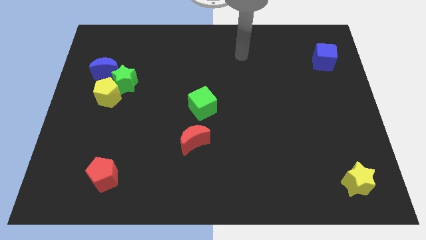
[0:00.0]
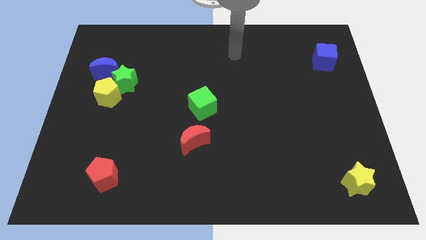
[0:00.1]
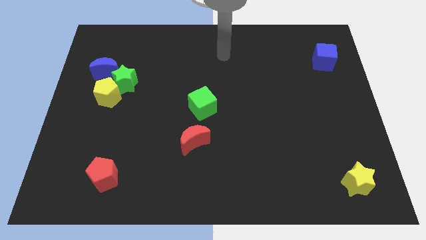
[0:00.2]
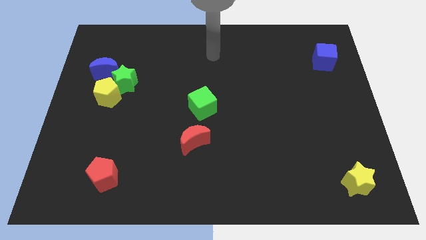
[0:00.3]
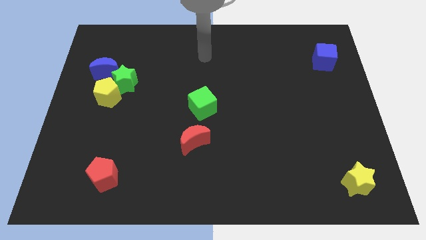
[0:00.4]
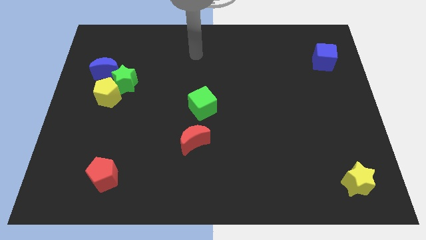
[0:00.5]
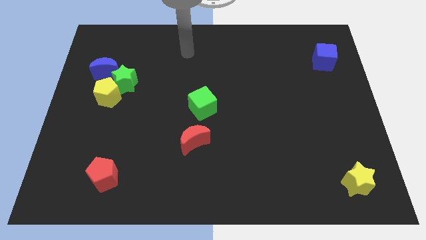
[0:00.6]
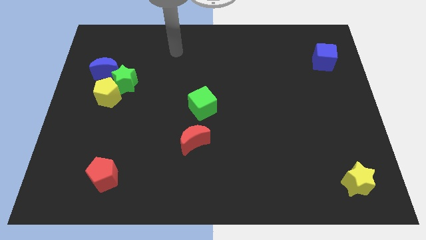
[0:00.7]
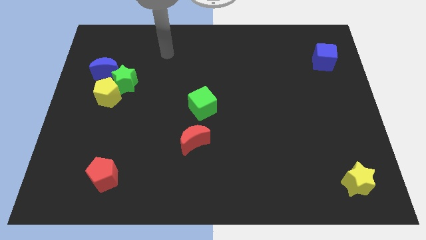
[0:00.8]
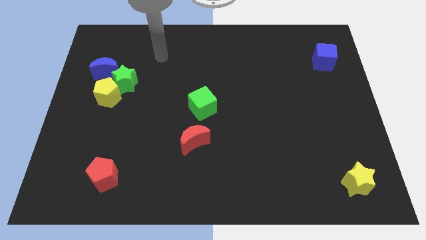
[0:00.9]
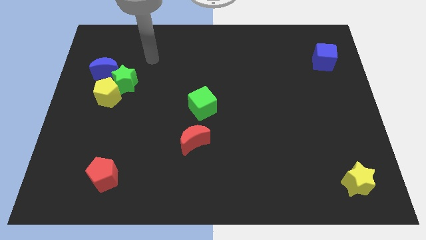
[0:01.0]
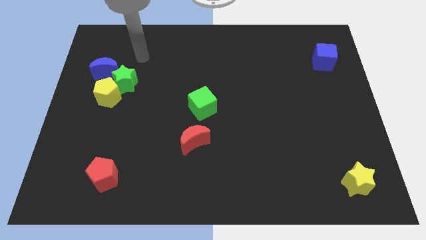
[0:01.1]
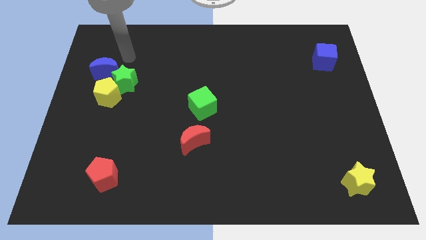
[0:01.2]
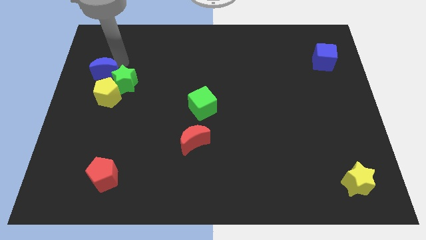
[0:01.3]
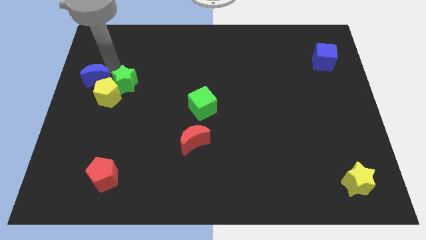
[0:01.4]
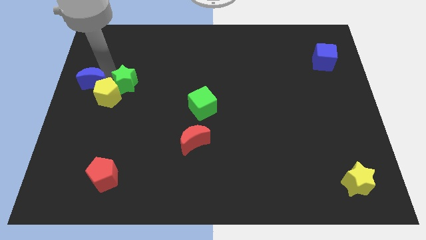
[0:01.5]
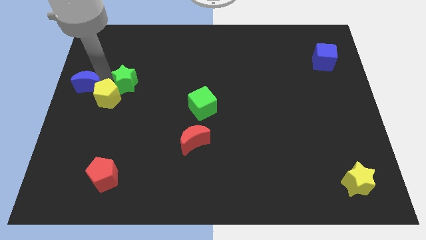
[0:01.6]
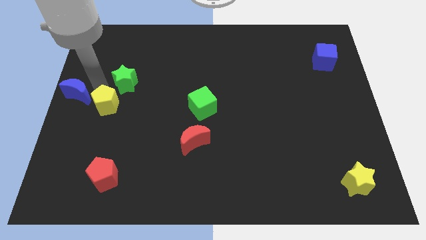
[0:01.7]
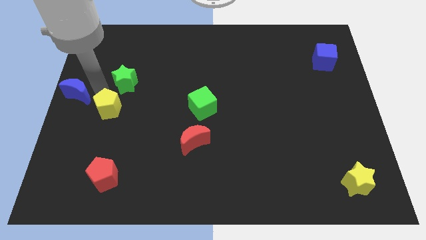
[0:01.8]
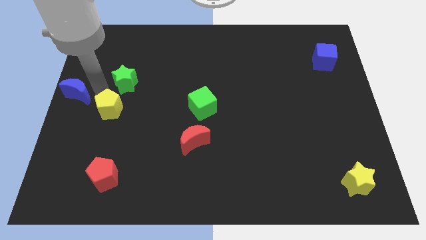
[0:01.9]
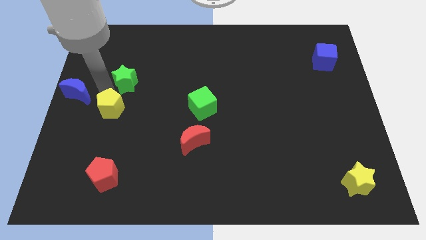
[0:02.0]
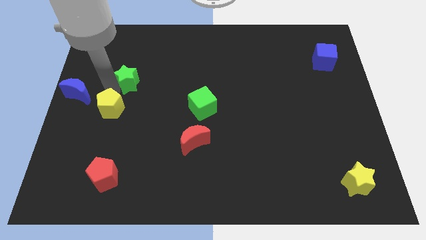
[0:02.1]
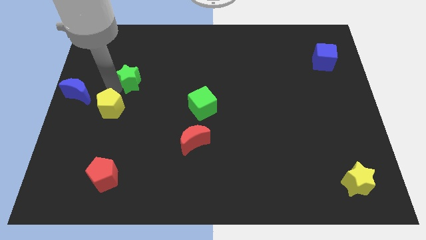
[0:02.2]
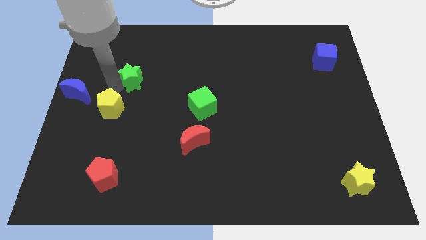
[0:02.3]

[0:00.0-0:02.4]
separate the green star from the yellow pentagon and blue moon

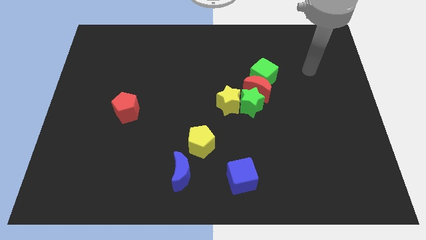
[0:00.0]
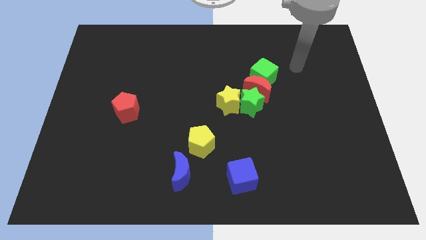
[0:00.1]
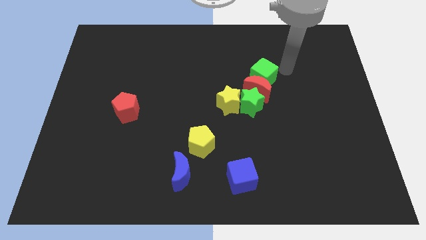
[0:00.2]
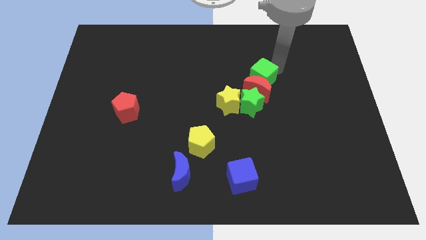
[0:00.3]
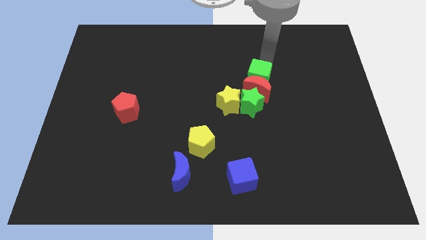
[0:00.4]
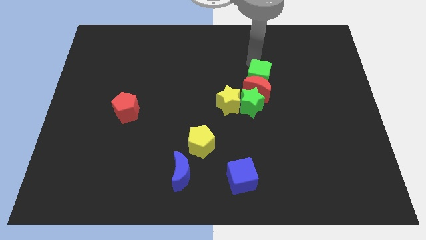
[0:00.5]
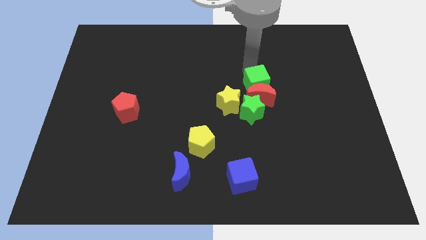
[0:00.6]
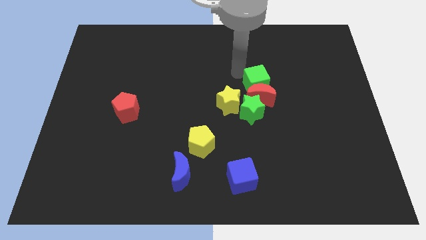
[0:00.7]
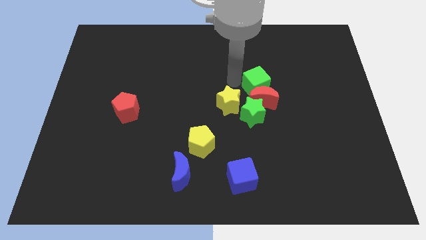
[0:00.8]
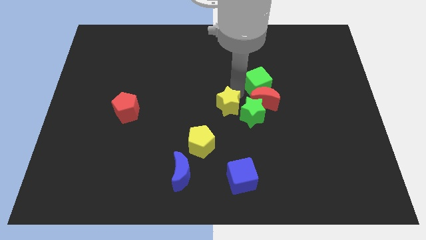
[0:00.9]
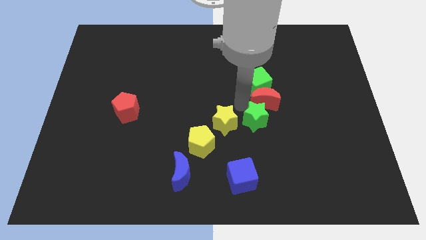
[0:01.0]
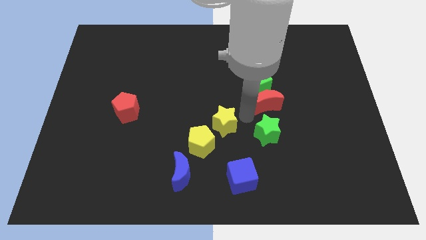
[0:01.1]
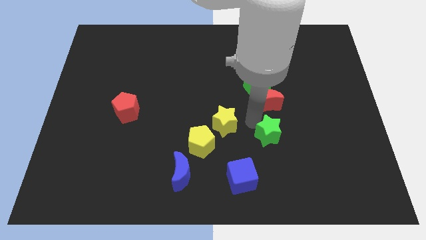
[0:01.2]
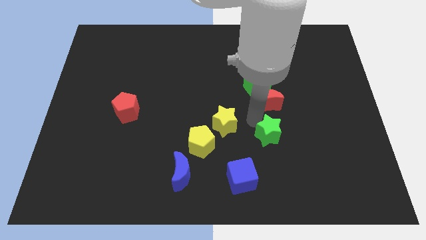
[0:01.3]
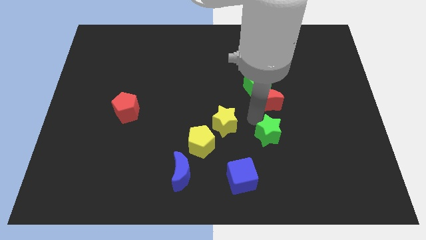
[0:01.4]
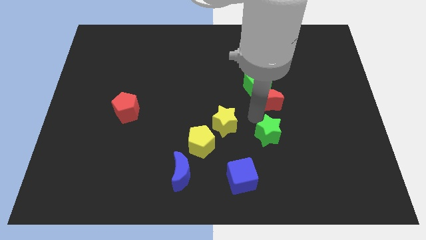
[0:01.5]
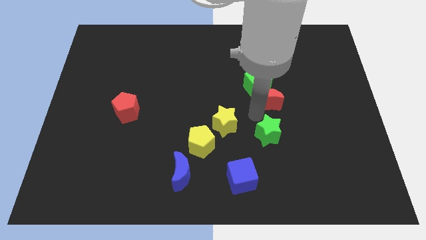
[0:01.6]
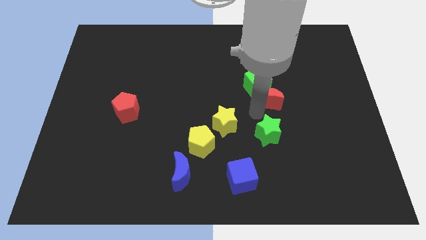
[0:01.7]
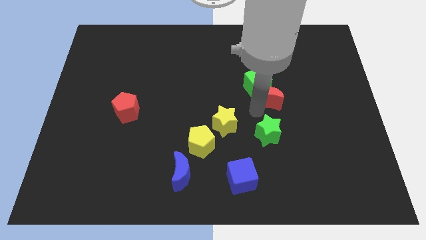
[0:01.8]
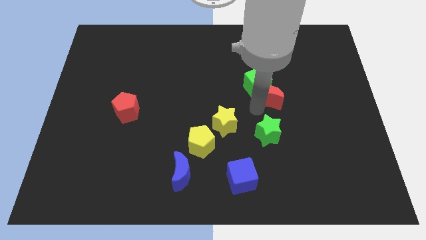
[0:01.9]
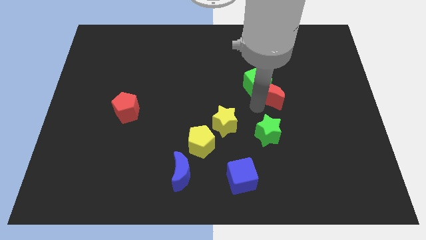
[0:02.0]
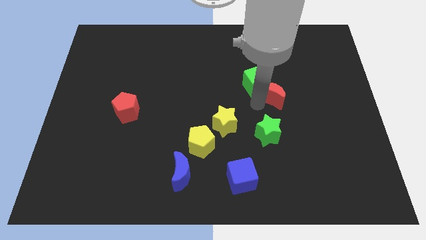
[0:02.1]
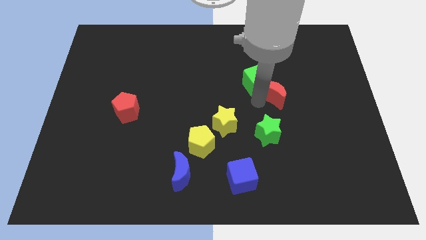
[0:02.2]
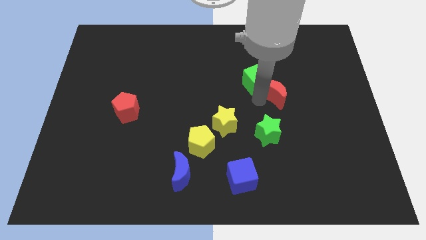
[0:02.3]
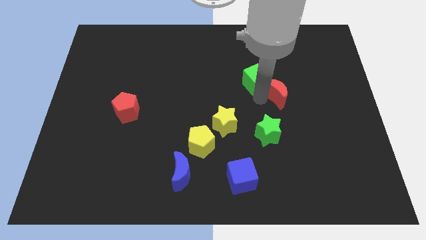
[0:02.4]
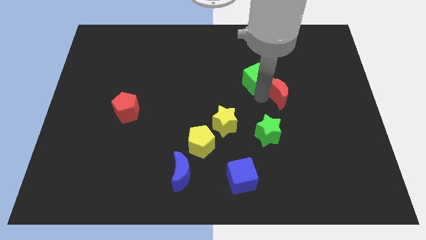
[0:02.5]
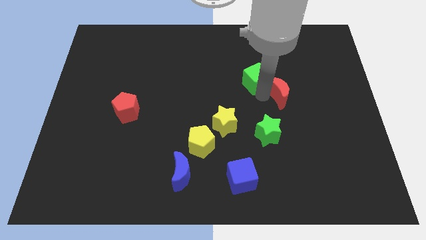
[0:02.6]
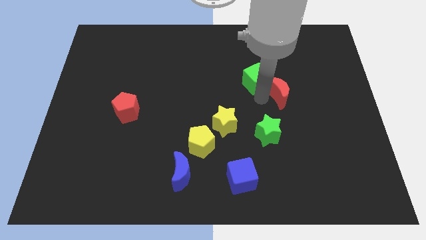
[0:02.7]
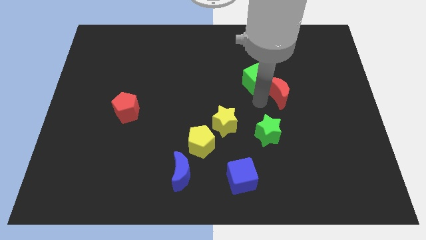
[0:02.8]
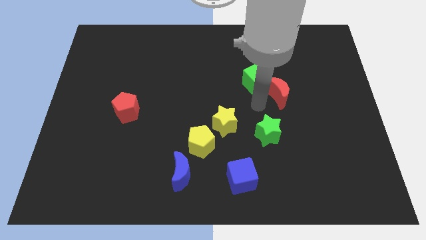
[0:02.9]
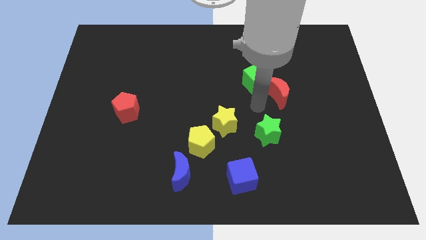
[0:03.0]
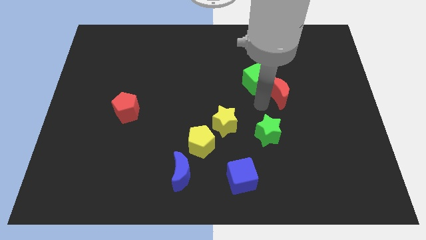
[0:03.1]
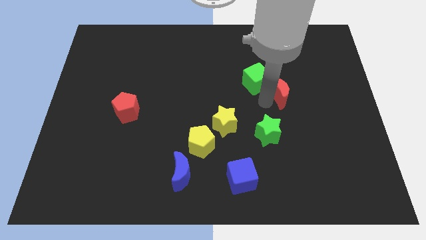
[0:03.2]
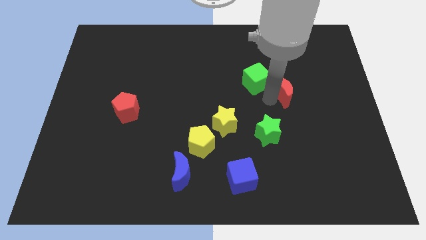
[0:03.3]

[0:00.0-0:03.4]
move the red moon away from the green cube, green star, and yellow star

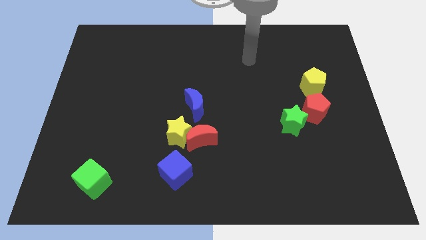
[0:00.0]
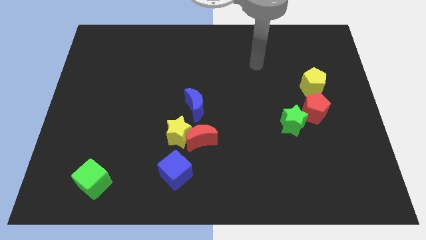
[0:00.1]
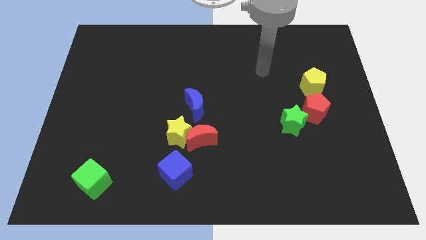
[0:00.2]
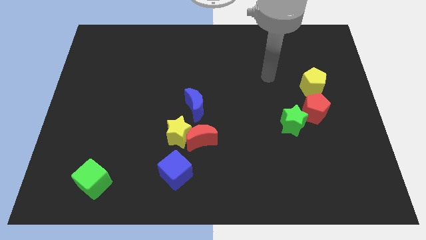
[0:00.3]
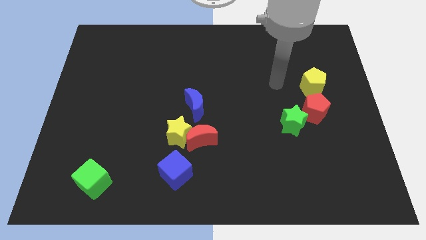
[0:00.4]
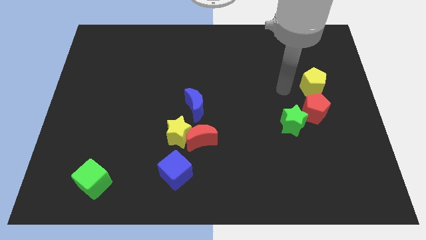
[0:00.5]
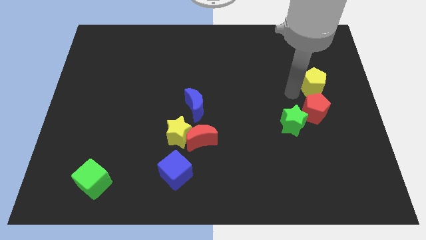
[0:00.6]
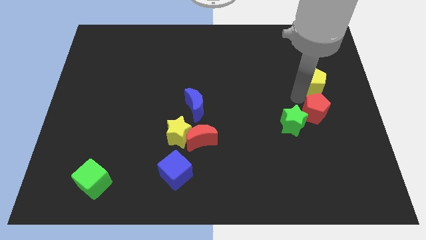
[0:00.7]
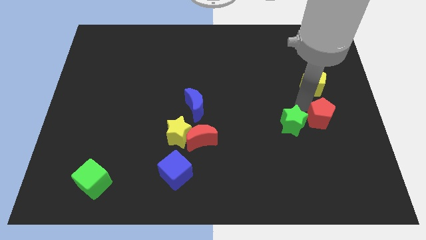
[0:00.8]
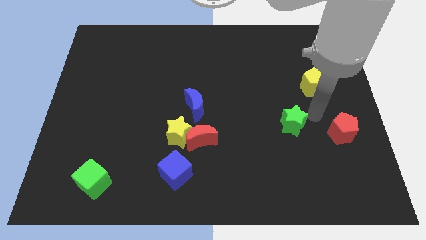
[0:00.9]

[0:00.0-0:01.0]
separate the green star from the red pentagon

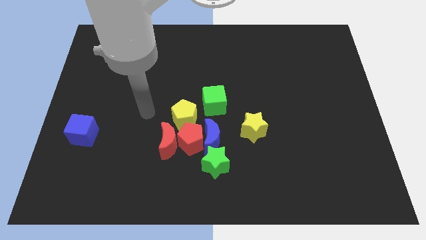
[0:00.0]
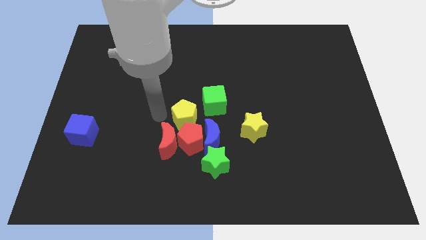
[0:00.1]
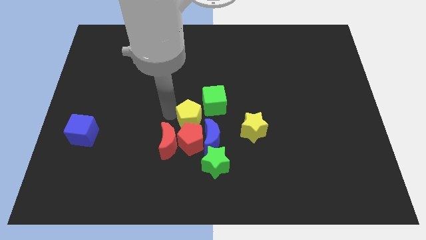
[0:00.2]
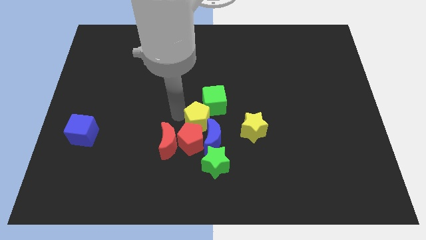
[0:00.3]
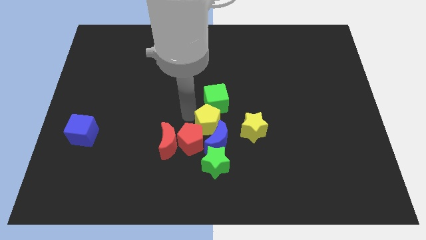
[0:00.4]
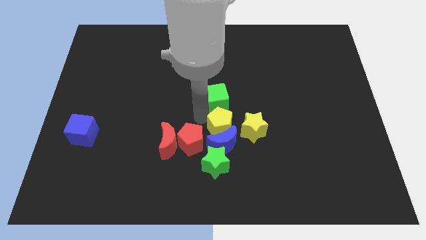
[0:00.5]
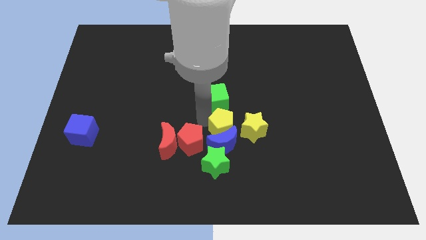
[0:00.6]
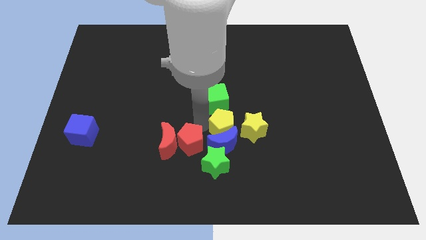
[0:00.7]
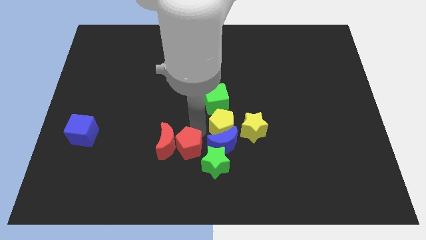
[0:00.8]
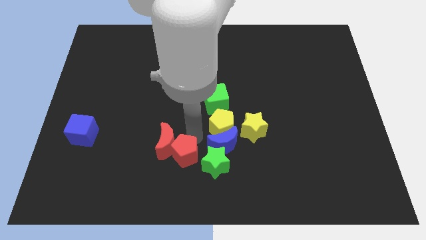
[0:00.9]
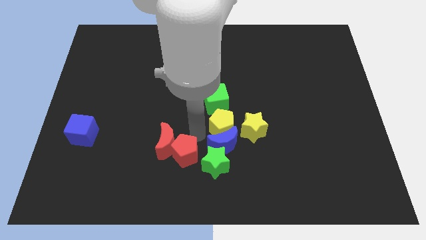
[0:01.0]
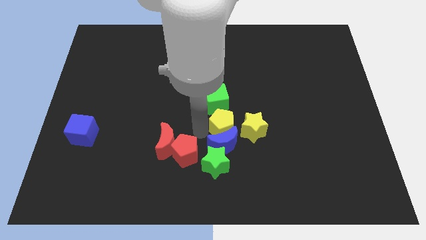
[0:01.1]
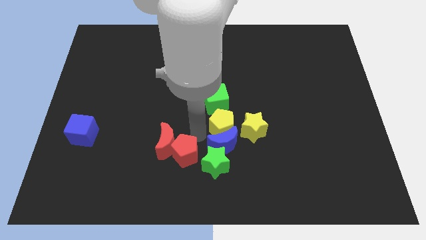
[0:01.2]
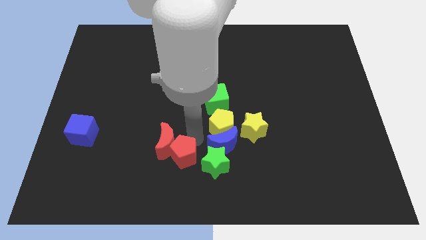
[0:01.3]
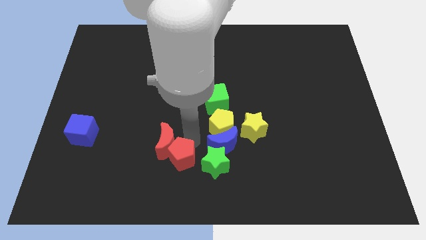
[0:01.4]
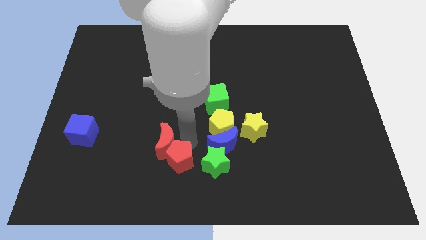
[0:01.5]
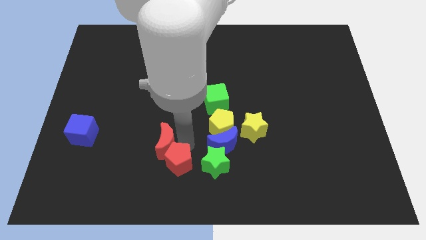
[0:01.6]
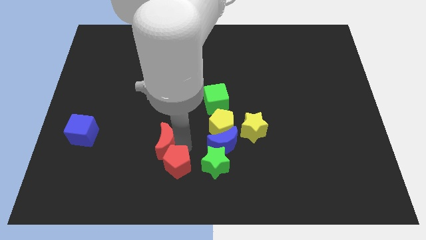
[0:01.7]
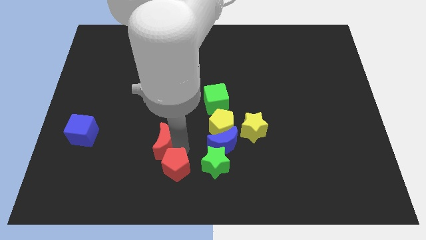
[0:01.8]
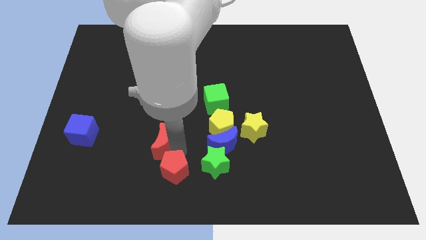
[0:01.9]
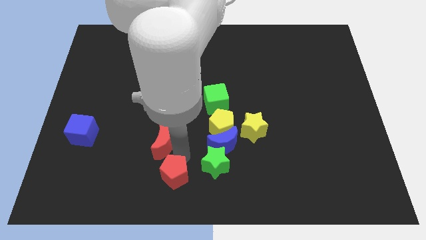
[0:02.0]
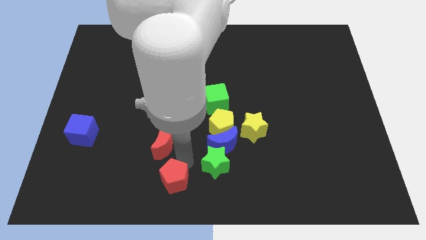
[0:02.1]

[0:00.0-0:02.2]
separate the red pentagon from the group

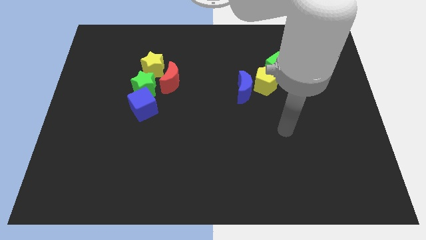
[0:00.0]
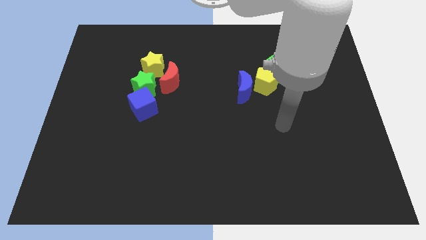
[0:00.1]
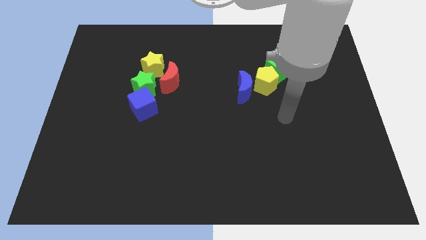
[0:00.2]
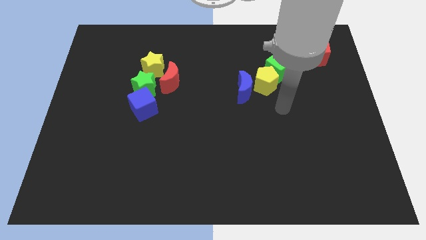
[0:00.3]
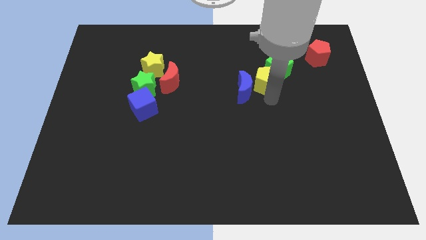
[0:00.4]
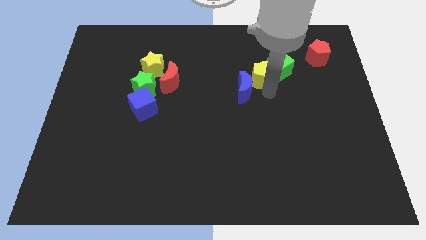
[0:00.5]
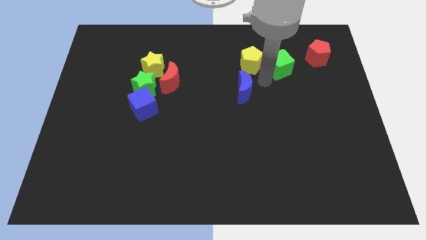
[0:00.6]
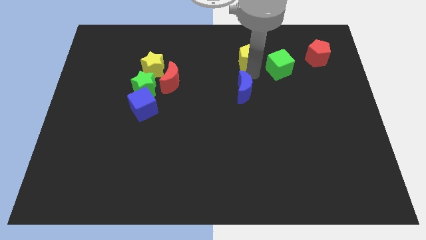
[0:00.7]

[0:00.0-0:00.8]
separate the blue moon from the yellow pentagon
